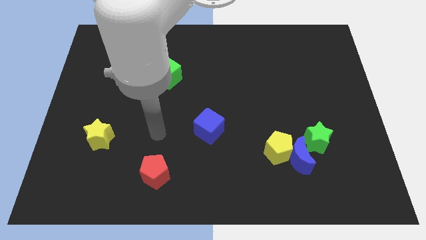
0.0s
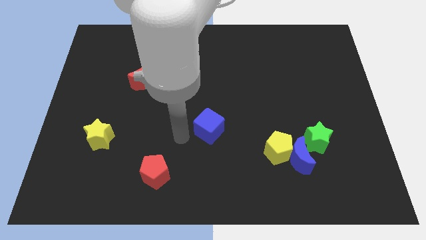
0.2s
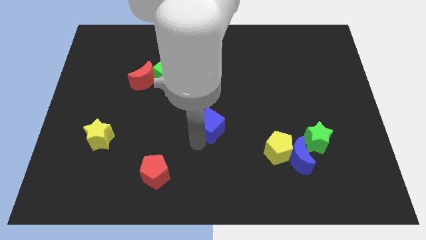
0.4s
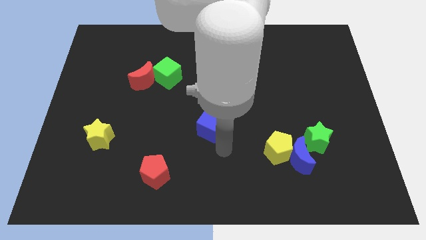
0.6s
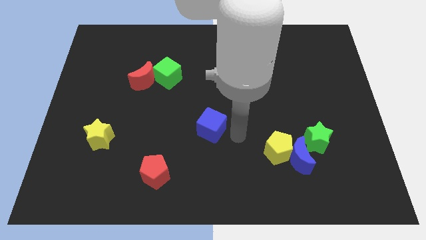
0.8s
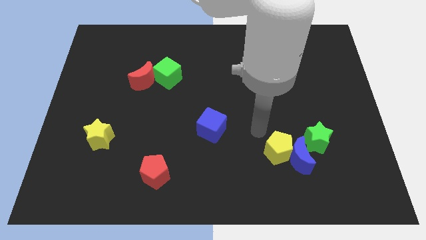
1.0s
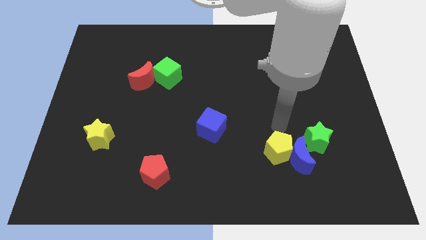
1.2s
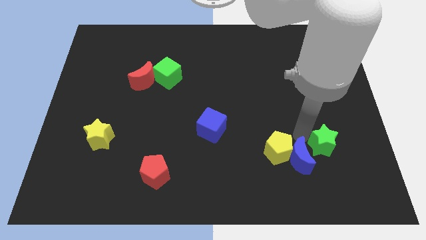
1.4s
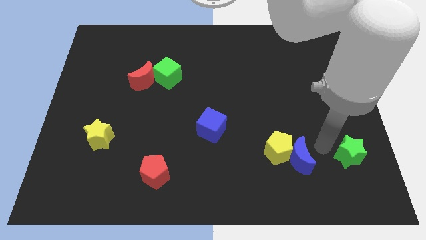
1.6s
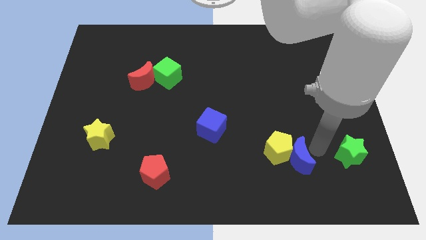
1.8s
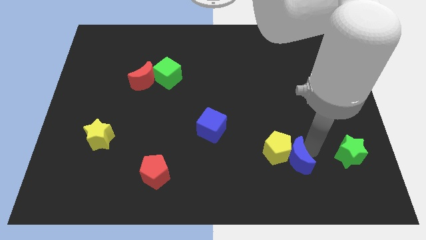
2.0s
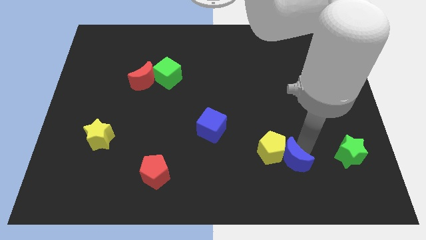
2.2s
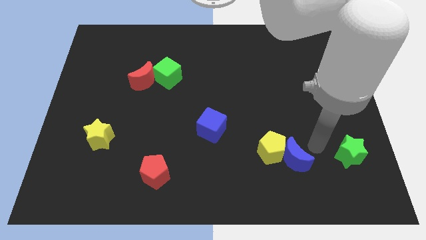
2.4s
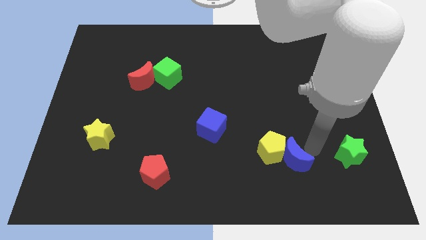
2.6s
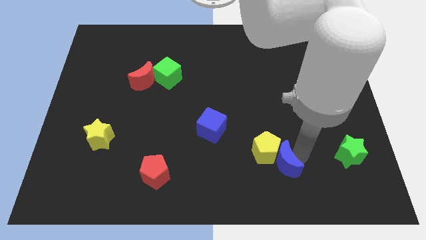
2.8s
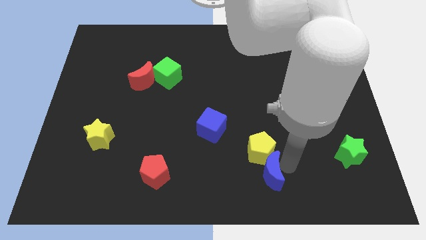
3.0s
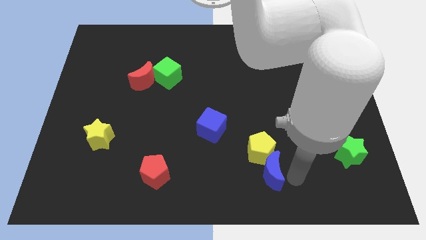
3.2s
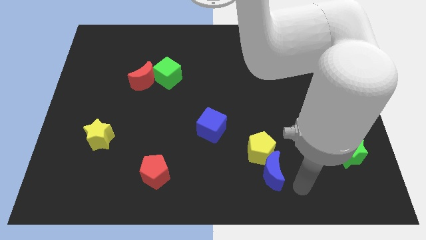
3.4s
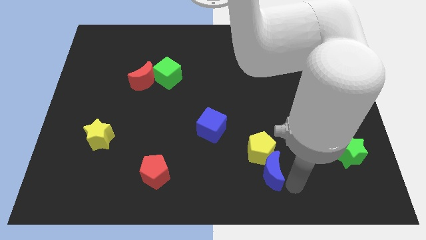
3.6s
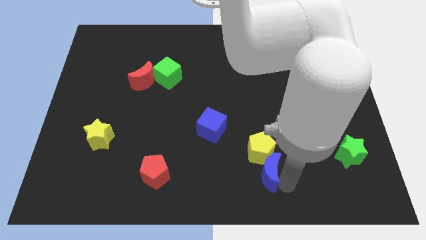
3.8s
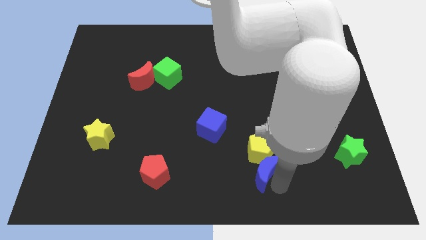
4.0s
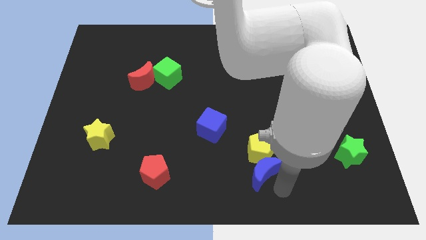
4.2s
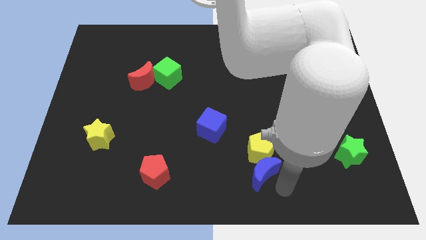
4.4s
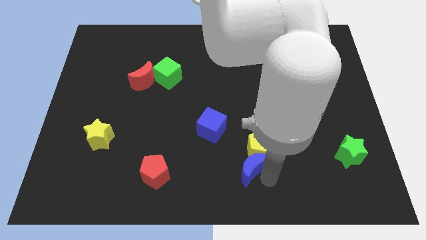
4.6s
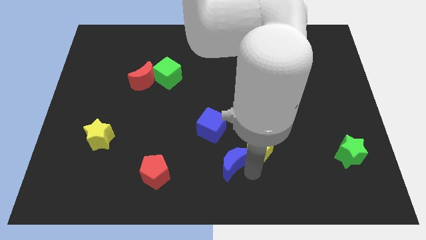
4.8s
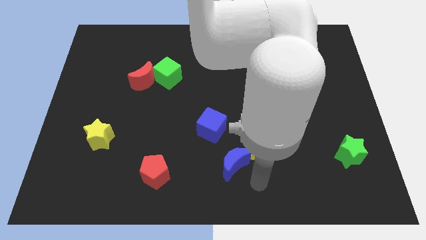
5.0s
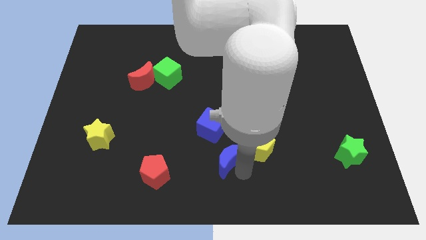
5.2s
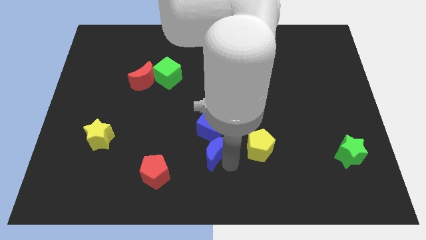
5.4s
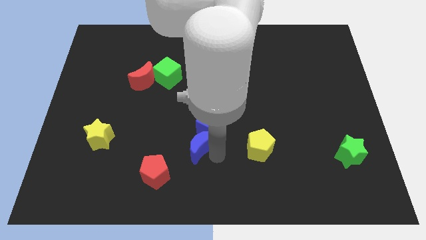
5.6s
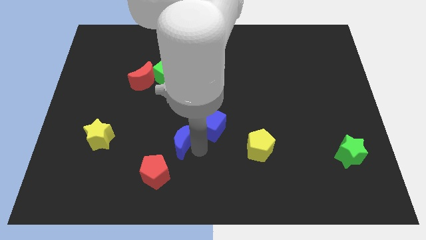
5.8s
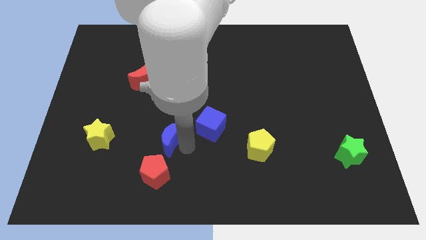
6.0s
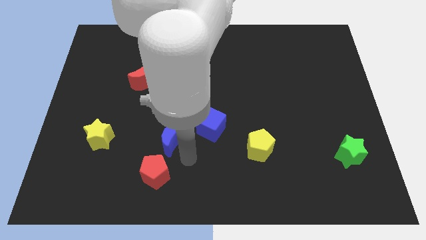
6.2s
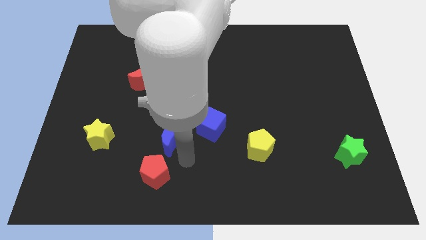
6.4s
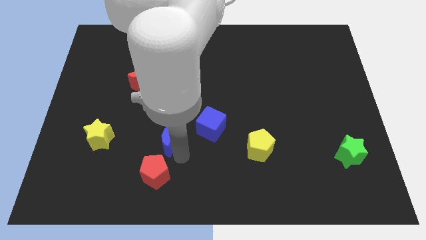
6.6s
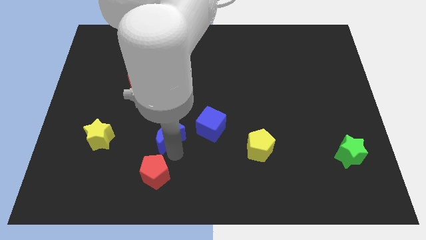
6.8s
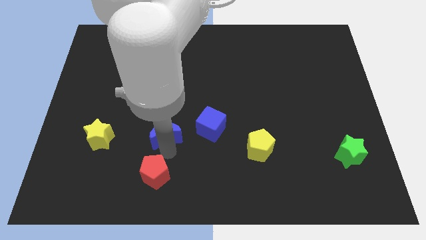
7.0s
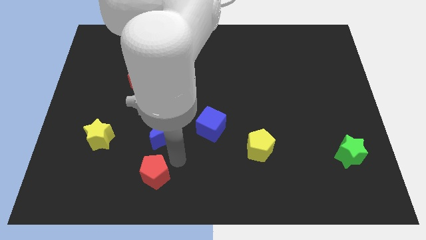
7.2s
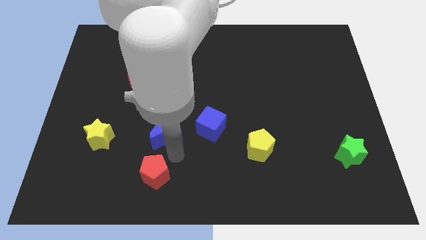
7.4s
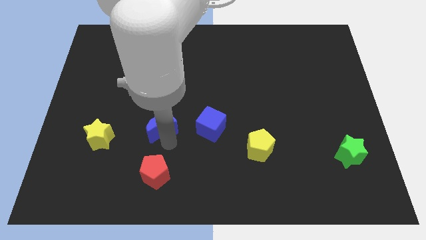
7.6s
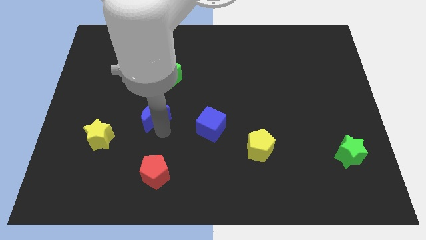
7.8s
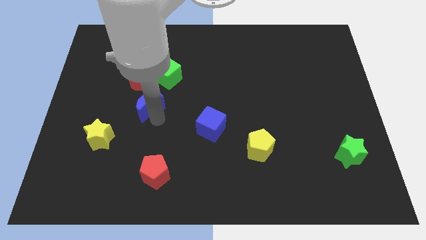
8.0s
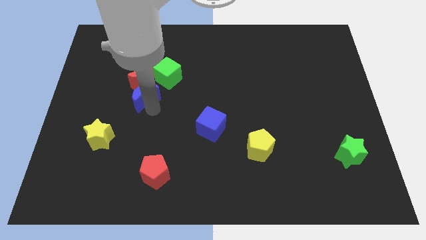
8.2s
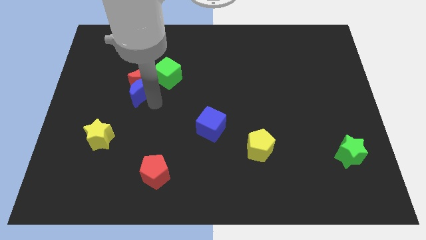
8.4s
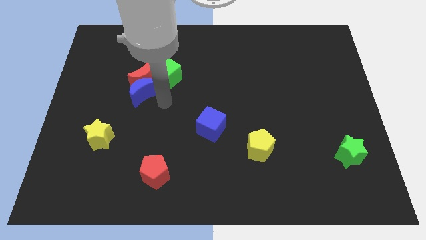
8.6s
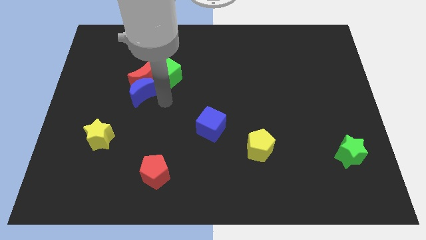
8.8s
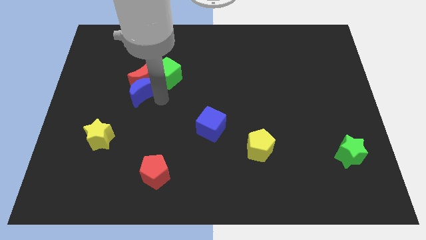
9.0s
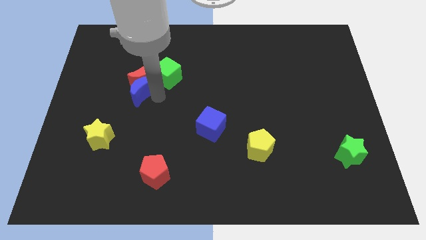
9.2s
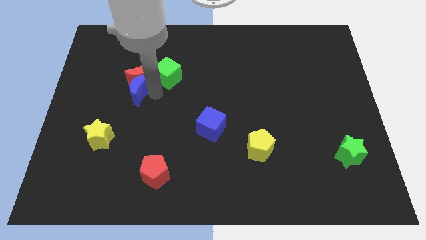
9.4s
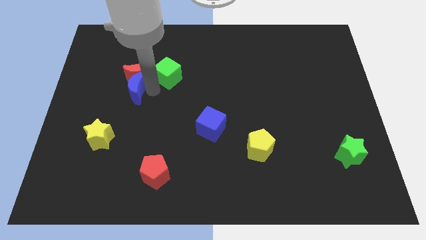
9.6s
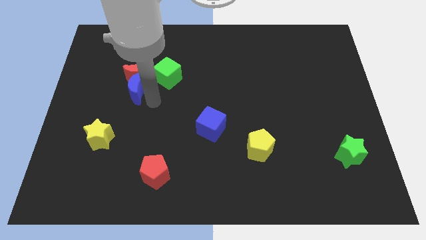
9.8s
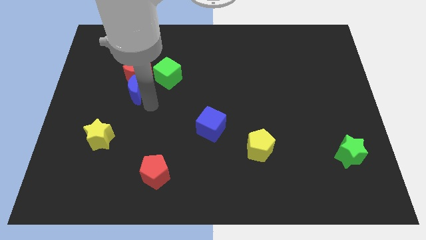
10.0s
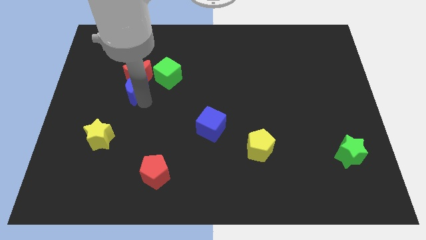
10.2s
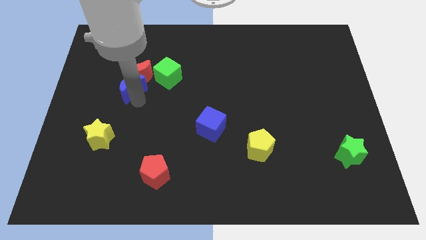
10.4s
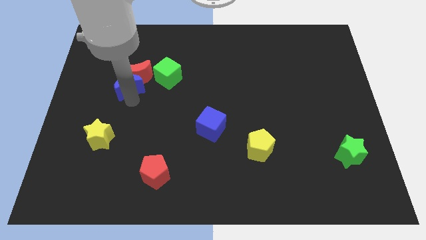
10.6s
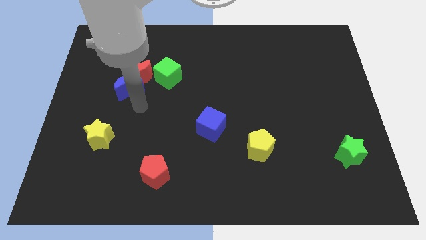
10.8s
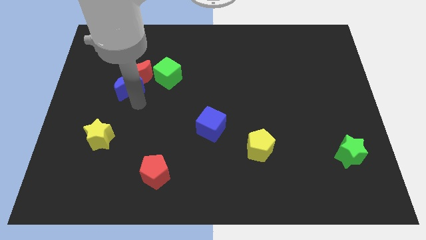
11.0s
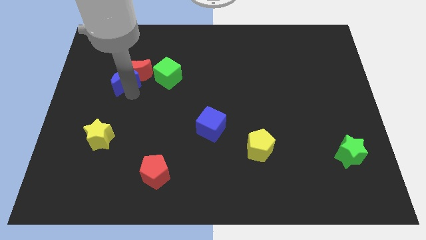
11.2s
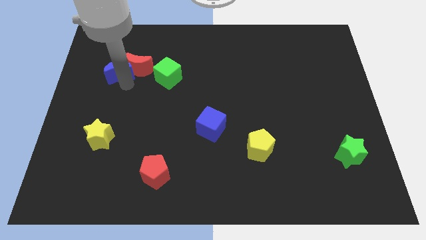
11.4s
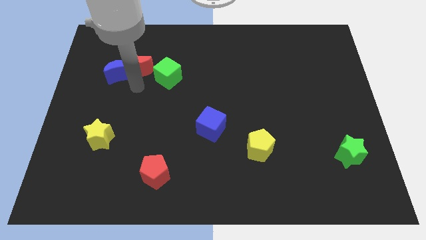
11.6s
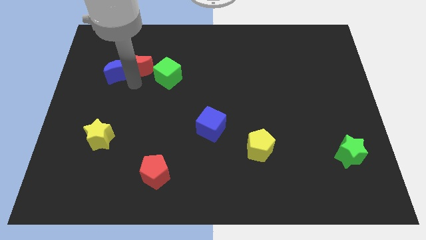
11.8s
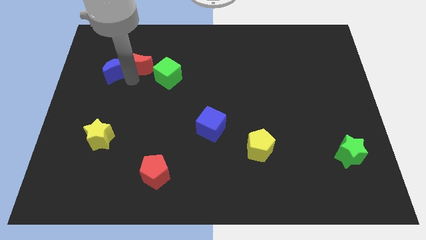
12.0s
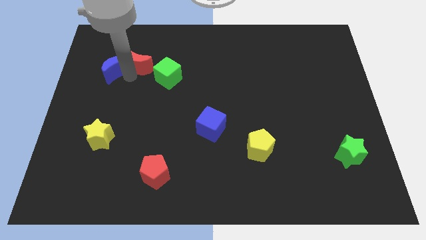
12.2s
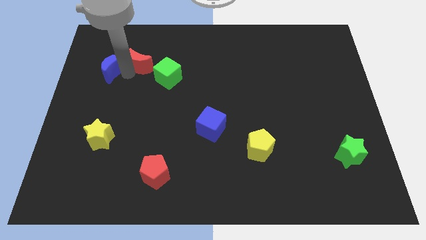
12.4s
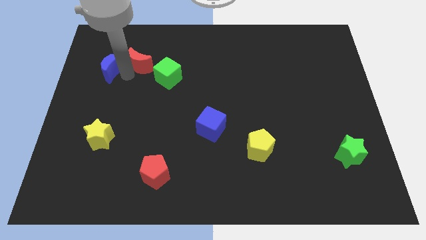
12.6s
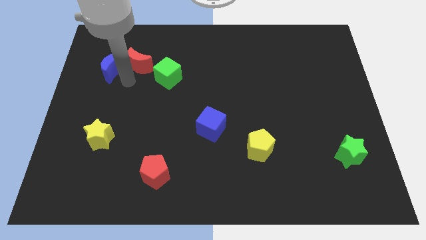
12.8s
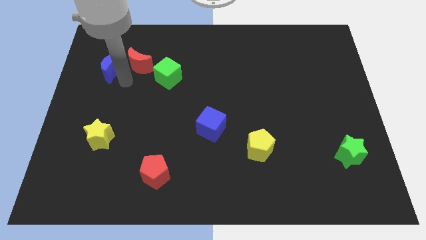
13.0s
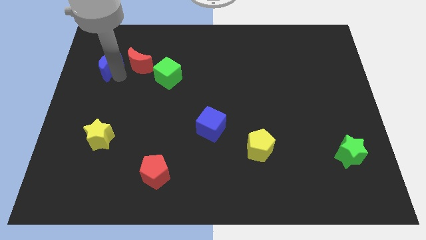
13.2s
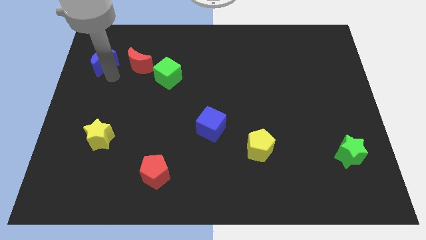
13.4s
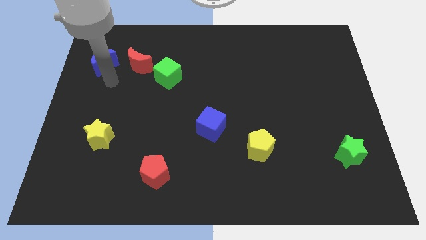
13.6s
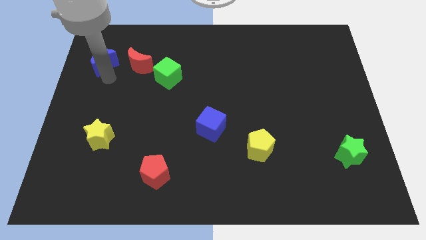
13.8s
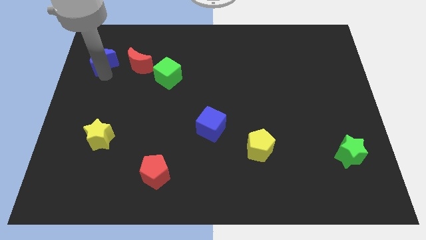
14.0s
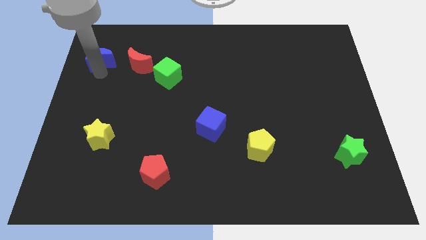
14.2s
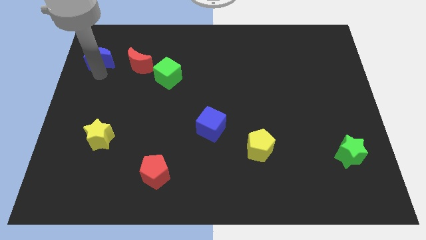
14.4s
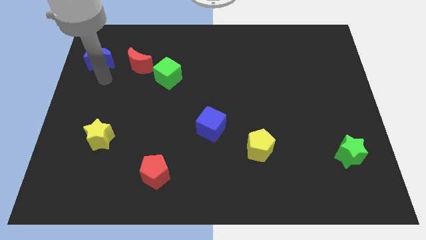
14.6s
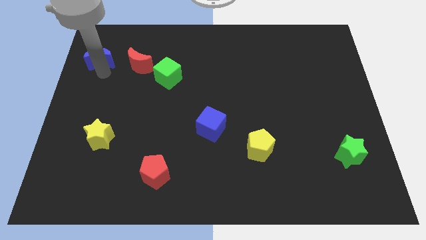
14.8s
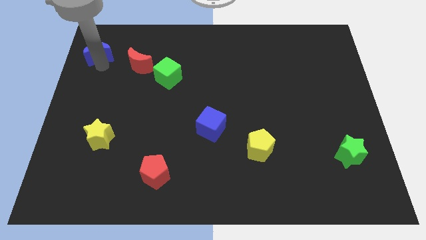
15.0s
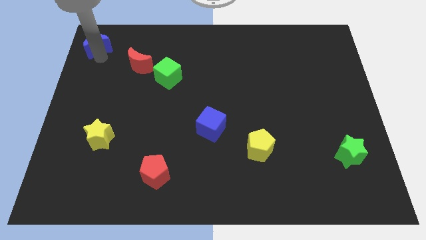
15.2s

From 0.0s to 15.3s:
push the blue moon to the upper left corner
